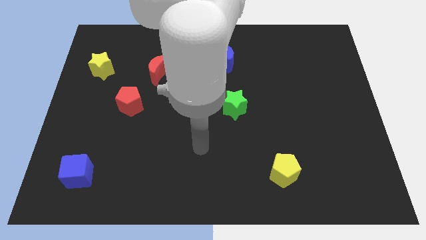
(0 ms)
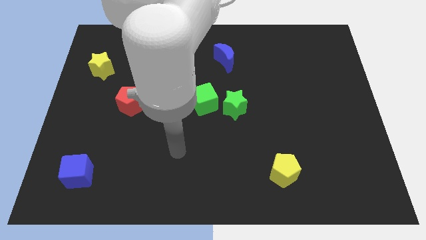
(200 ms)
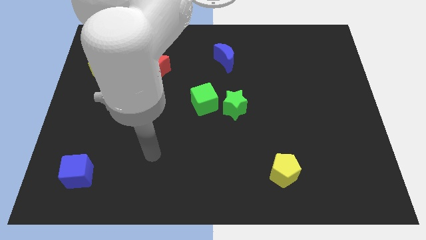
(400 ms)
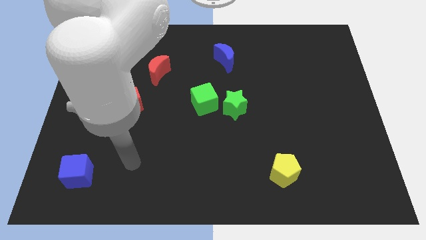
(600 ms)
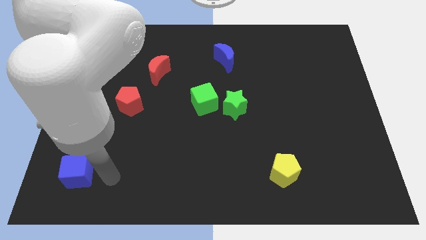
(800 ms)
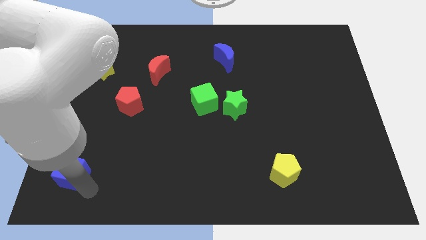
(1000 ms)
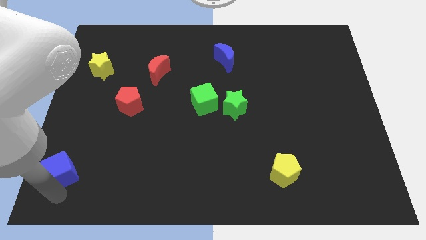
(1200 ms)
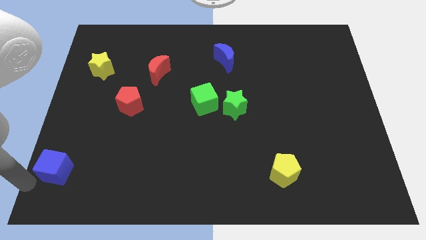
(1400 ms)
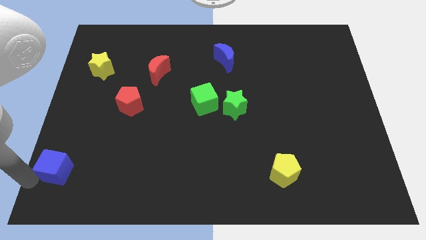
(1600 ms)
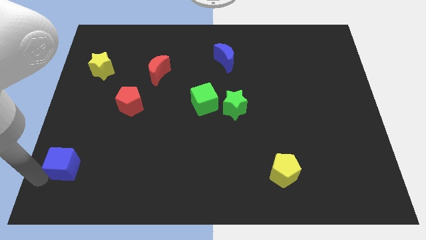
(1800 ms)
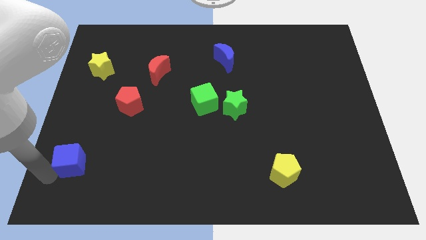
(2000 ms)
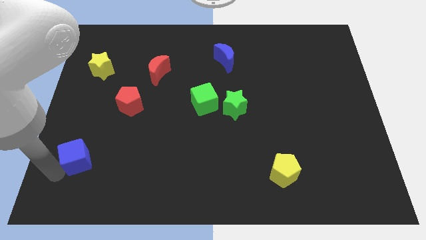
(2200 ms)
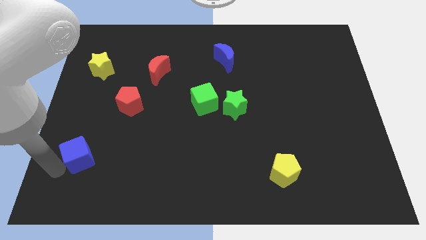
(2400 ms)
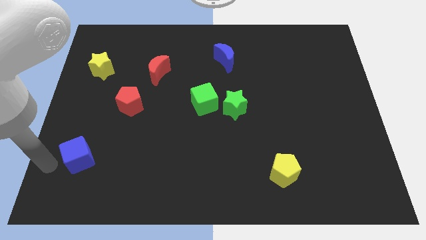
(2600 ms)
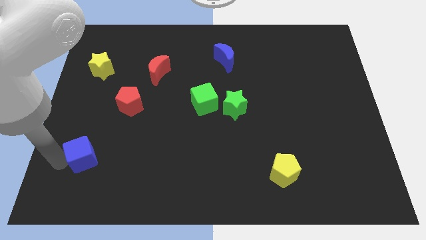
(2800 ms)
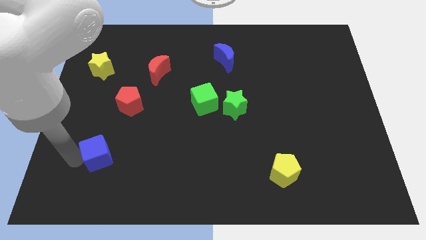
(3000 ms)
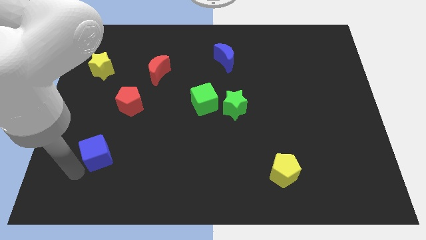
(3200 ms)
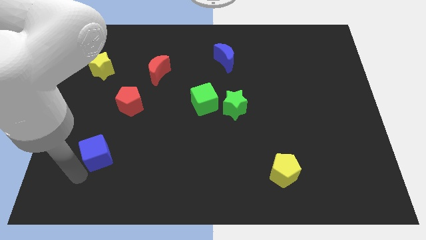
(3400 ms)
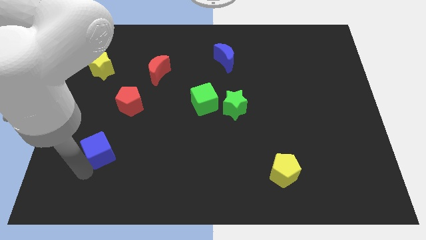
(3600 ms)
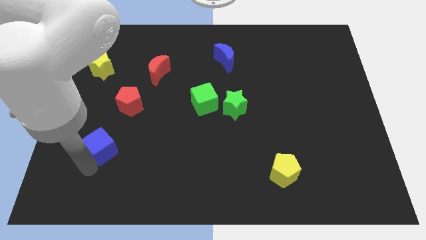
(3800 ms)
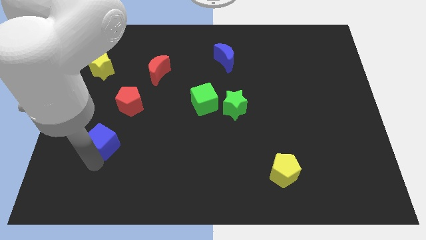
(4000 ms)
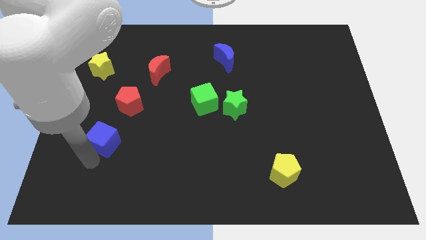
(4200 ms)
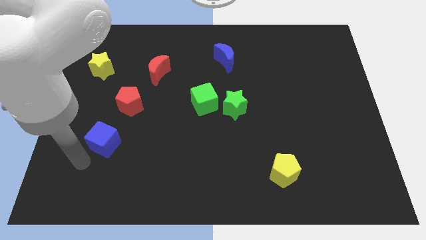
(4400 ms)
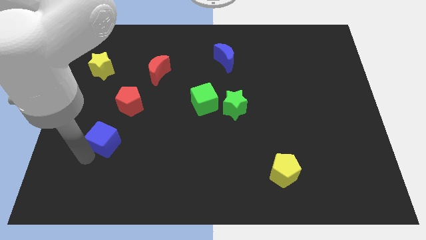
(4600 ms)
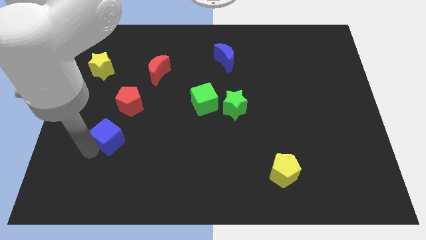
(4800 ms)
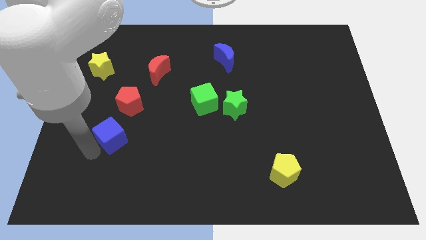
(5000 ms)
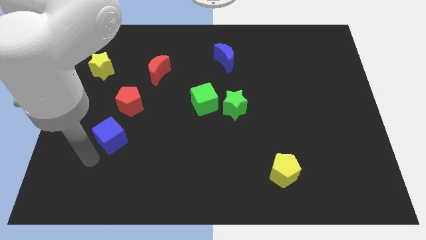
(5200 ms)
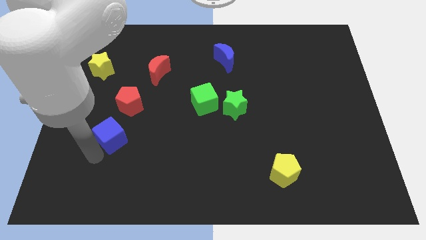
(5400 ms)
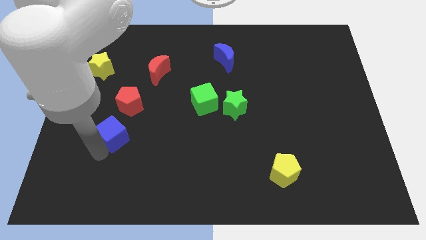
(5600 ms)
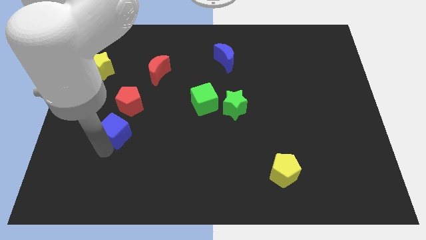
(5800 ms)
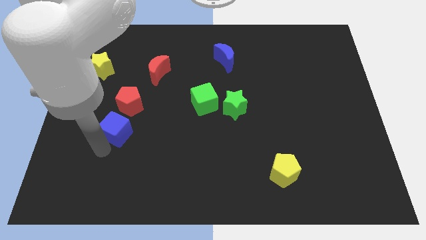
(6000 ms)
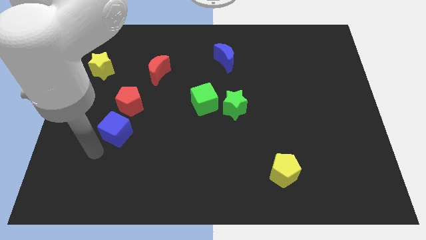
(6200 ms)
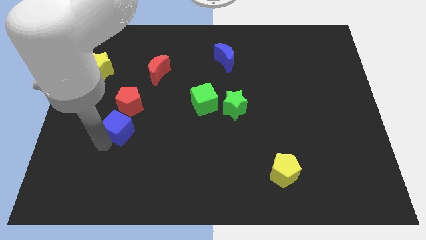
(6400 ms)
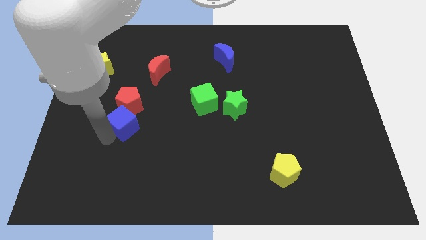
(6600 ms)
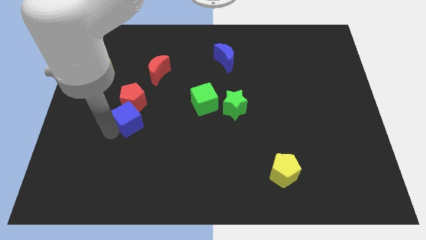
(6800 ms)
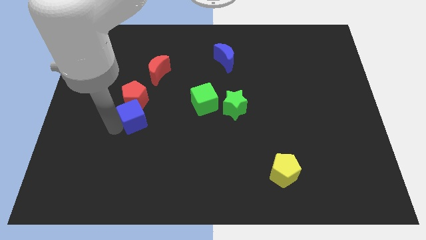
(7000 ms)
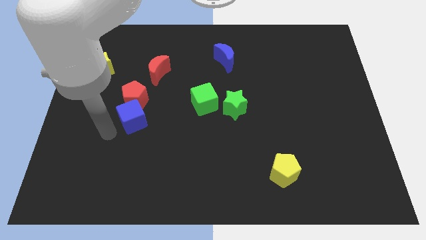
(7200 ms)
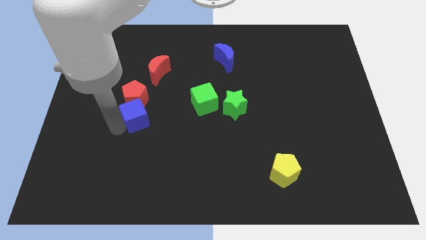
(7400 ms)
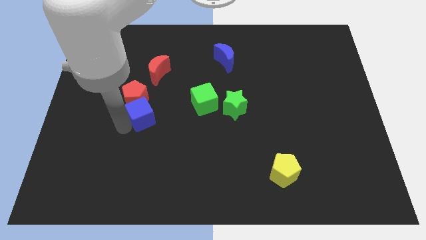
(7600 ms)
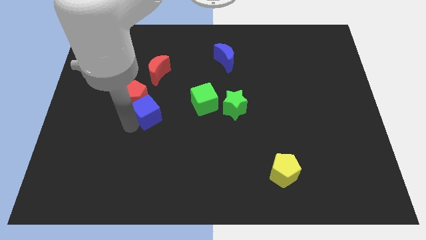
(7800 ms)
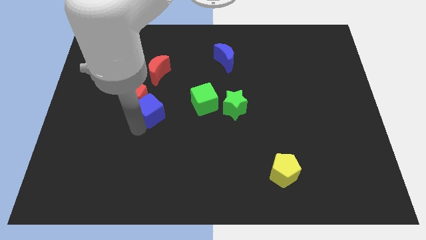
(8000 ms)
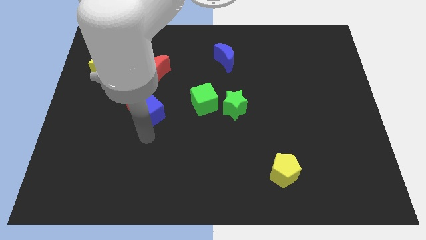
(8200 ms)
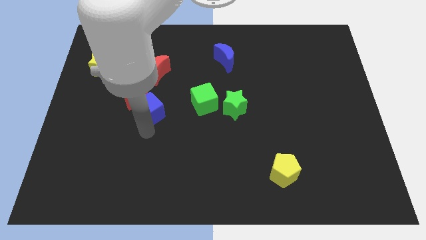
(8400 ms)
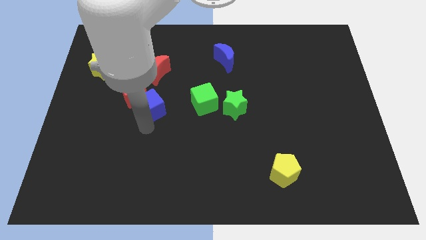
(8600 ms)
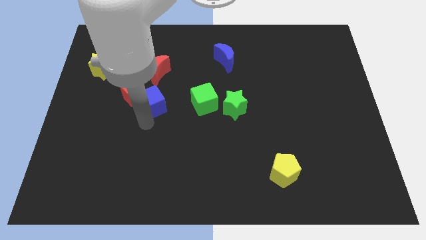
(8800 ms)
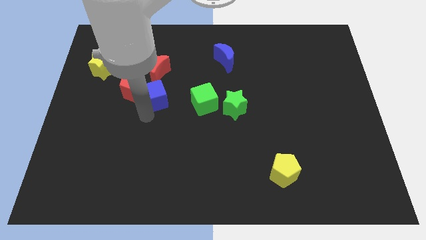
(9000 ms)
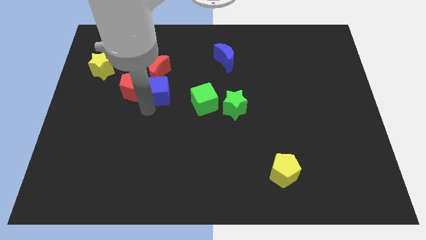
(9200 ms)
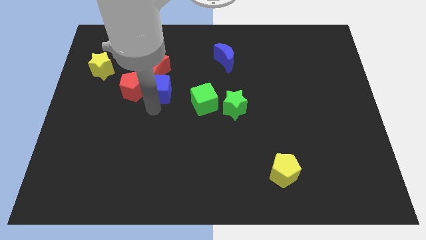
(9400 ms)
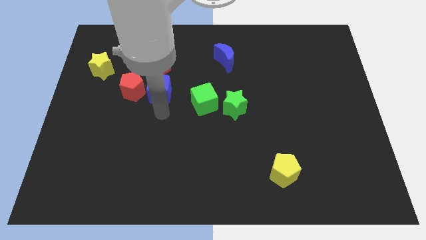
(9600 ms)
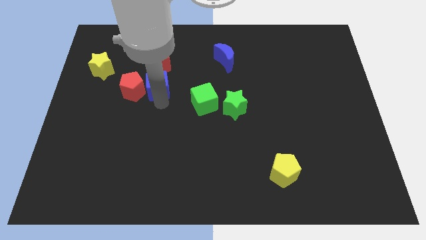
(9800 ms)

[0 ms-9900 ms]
push the blue cube close to the red moon

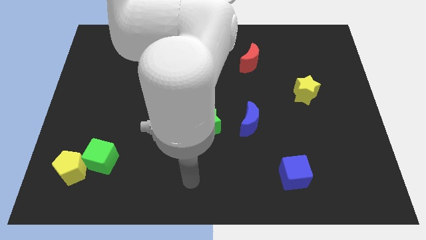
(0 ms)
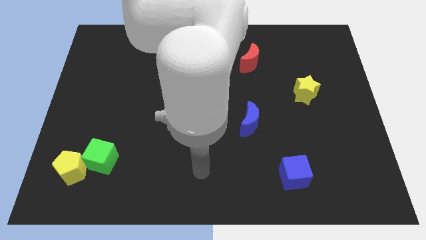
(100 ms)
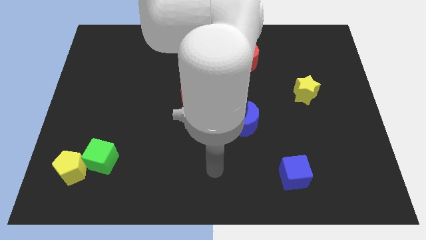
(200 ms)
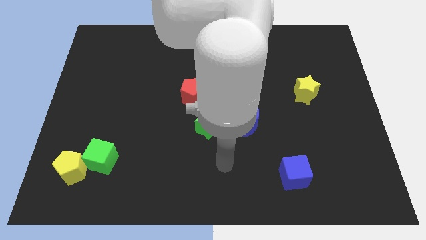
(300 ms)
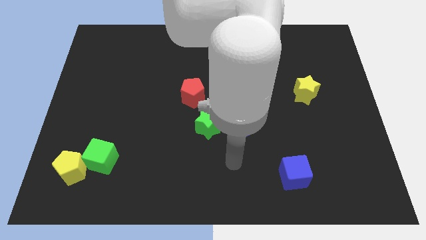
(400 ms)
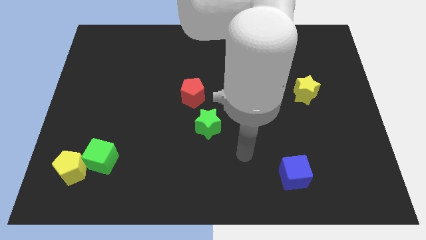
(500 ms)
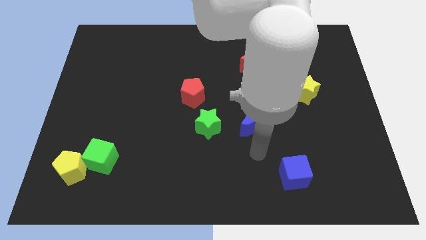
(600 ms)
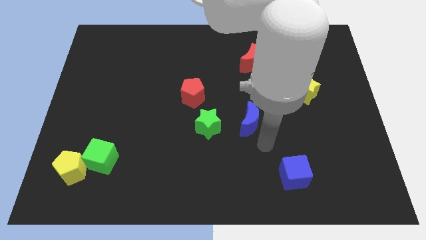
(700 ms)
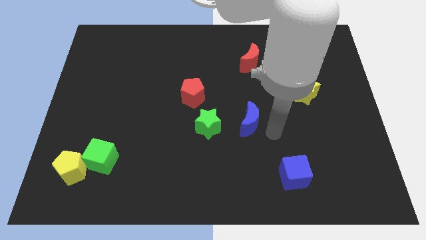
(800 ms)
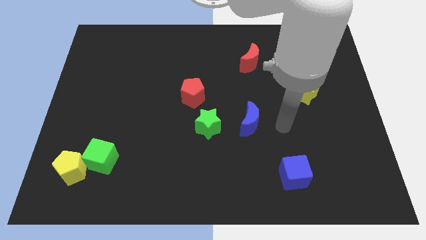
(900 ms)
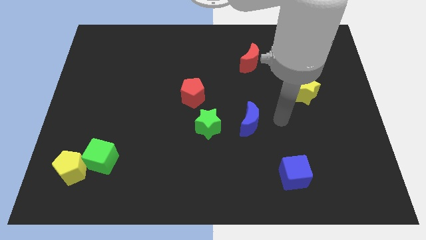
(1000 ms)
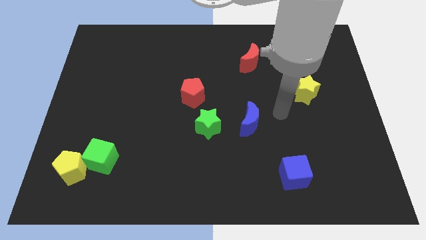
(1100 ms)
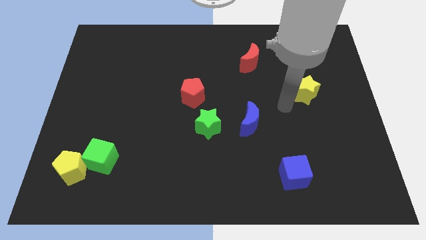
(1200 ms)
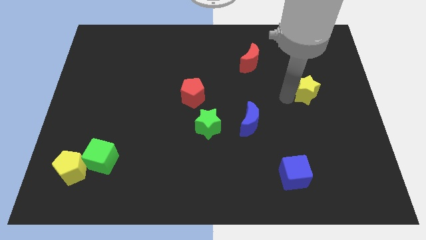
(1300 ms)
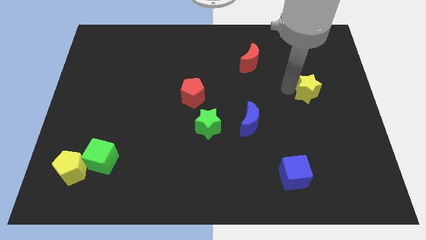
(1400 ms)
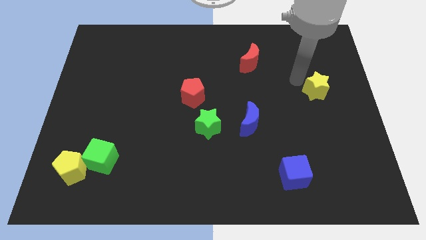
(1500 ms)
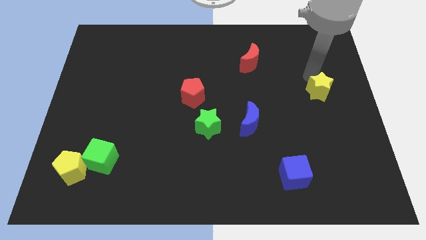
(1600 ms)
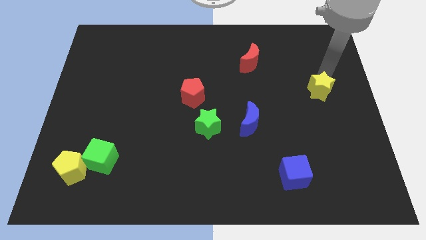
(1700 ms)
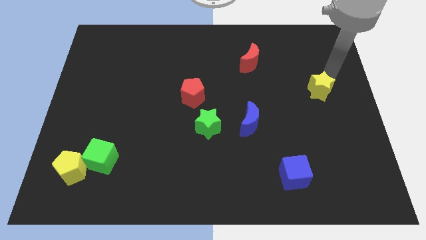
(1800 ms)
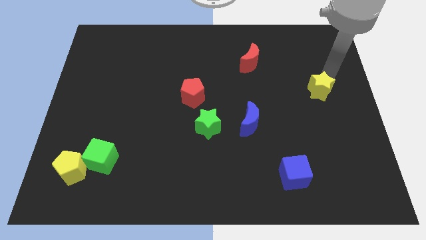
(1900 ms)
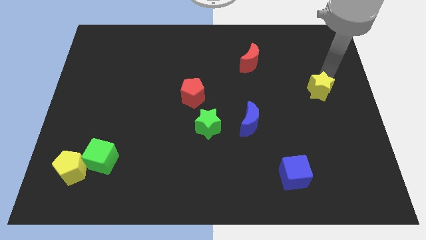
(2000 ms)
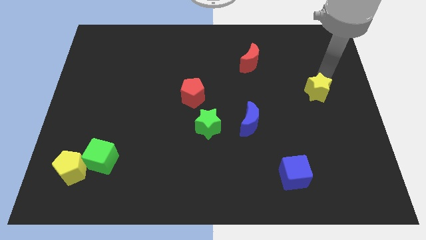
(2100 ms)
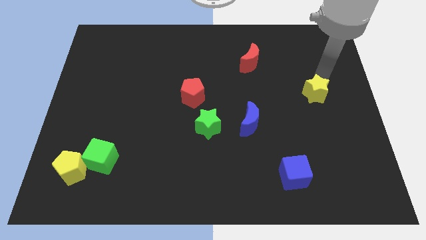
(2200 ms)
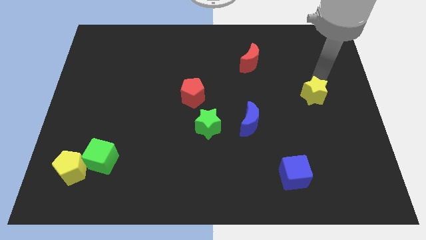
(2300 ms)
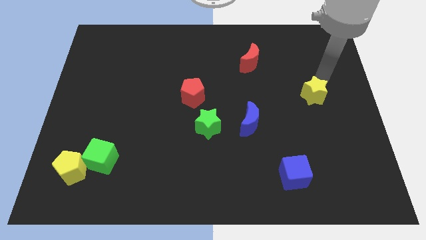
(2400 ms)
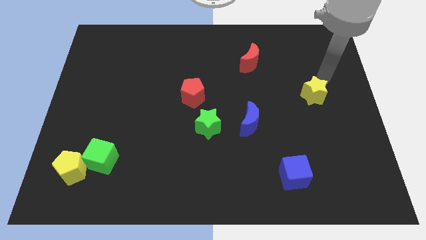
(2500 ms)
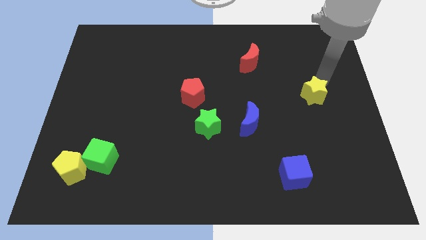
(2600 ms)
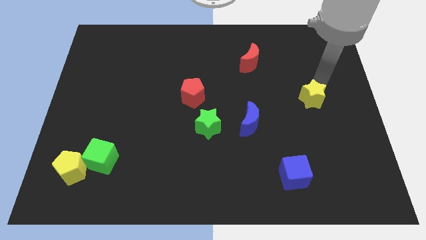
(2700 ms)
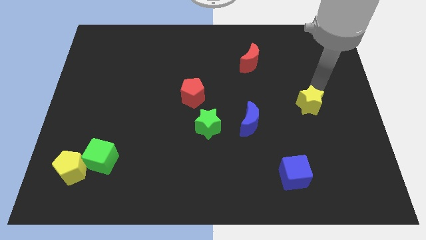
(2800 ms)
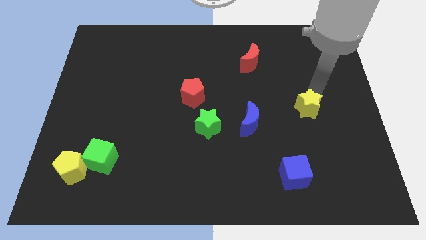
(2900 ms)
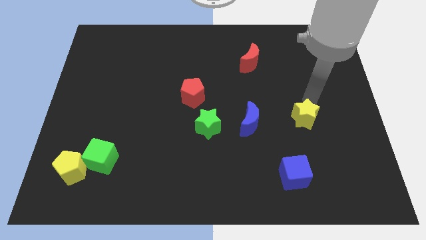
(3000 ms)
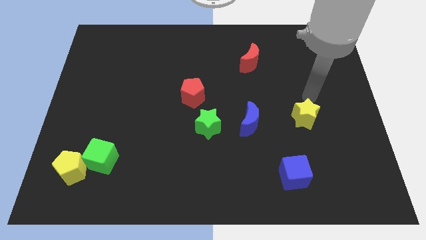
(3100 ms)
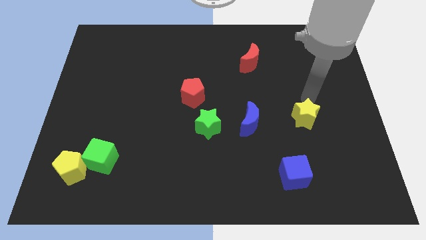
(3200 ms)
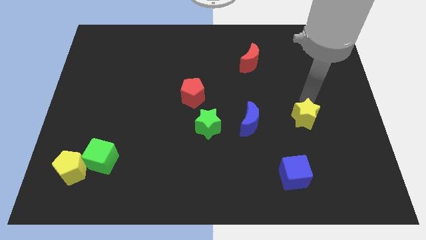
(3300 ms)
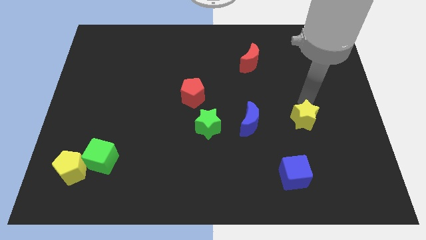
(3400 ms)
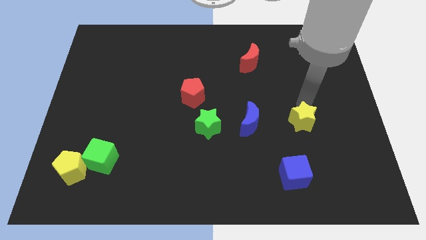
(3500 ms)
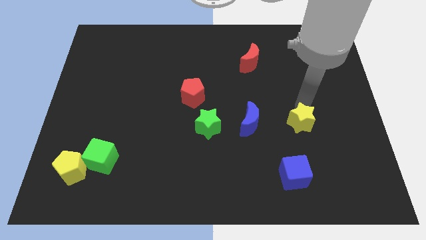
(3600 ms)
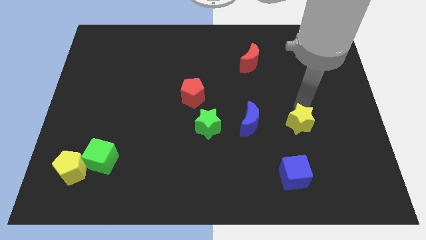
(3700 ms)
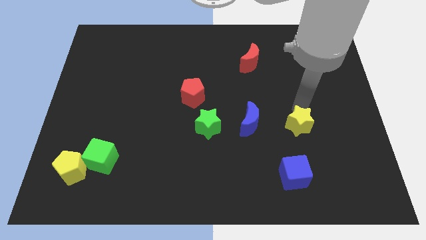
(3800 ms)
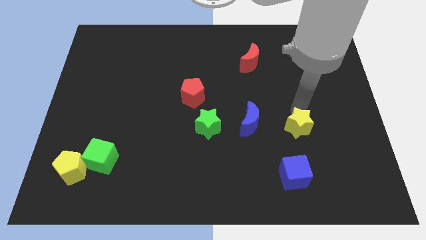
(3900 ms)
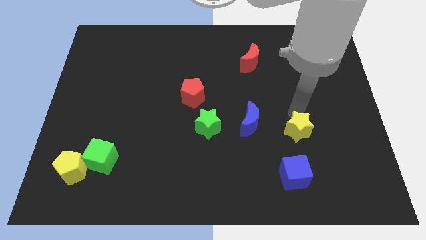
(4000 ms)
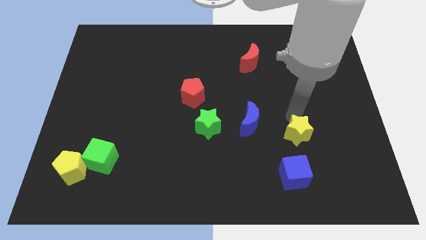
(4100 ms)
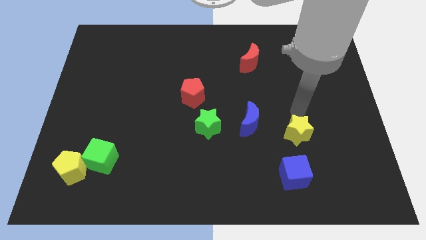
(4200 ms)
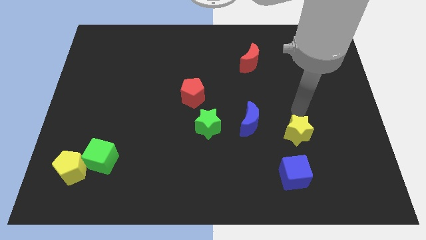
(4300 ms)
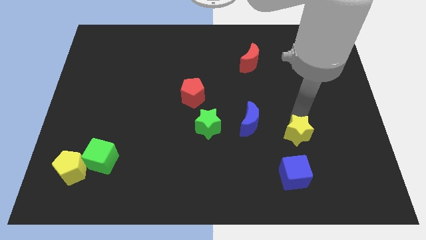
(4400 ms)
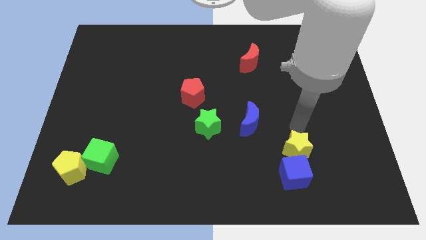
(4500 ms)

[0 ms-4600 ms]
put the yellow star to the blue cube
